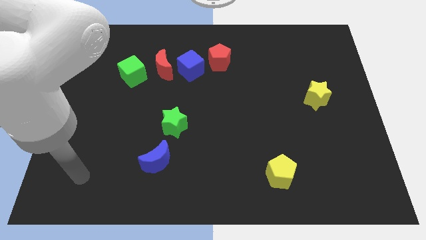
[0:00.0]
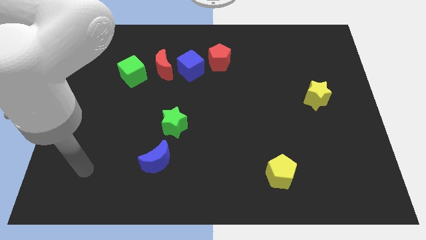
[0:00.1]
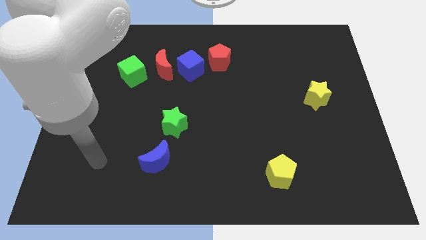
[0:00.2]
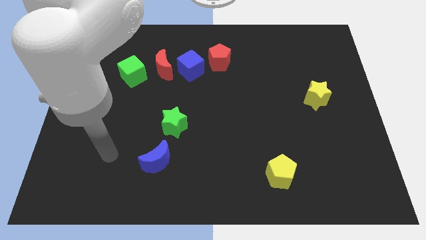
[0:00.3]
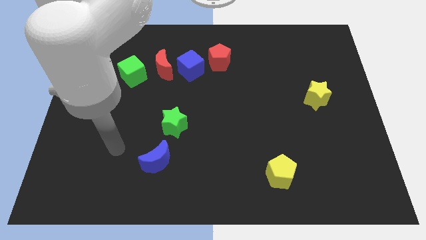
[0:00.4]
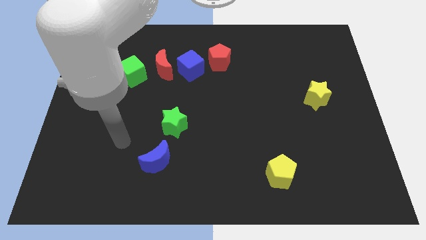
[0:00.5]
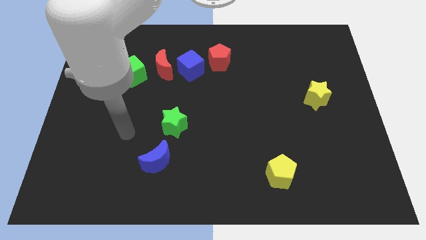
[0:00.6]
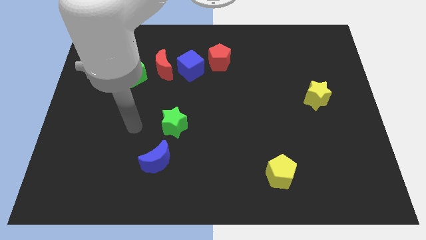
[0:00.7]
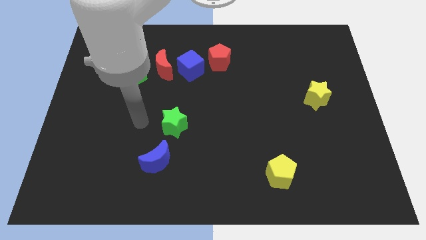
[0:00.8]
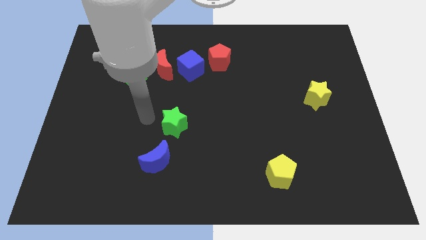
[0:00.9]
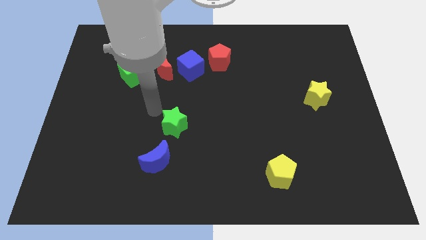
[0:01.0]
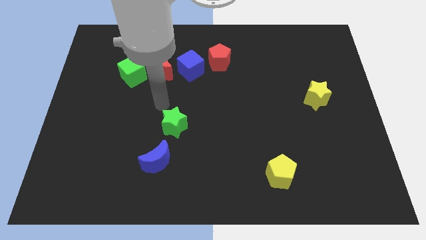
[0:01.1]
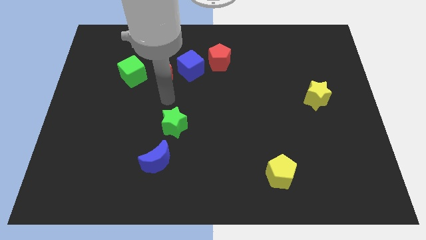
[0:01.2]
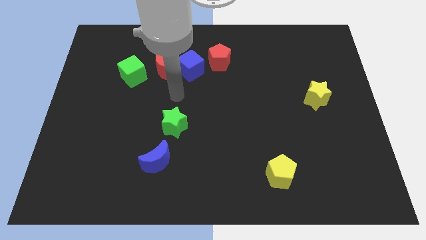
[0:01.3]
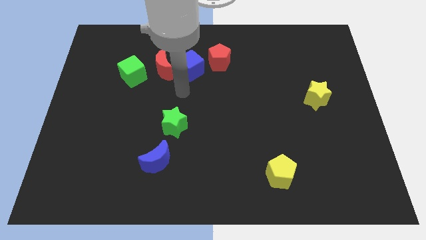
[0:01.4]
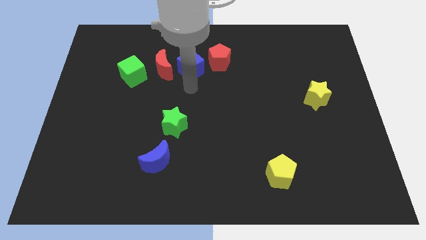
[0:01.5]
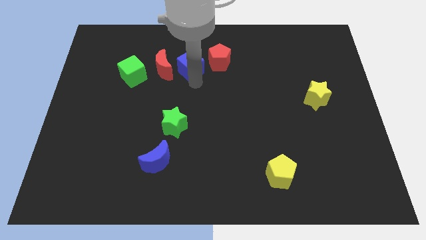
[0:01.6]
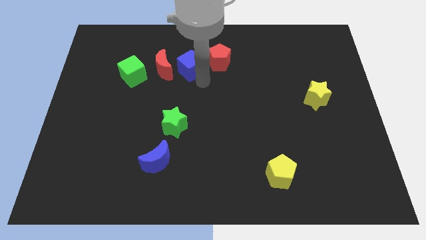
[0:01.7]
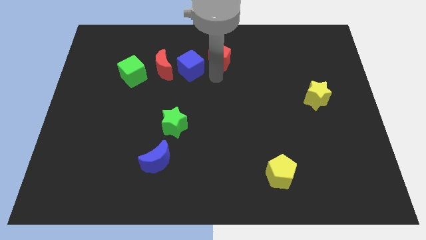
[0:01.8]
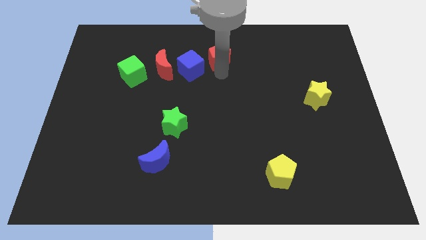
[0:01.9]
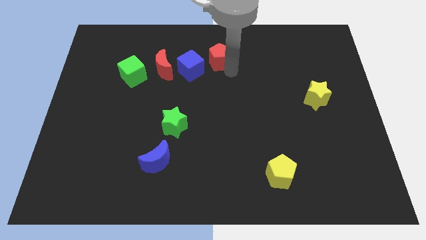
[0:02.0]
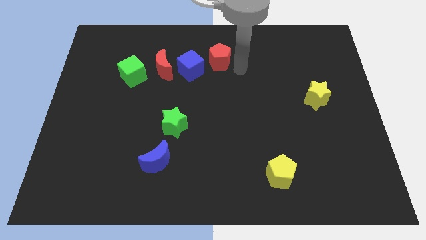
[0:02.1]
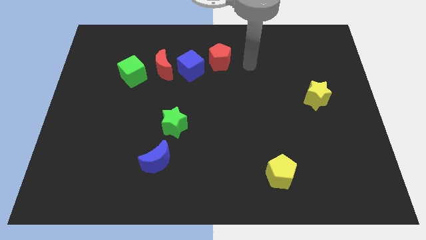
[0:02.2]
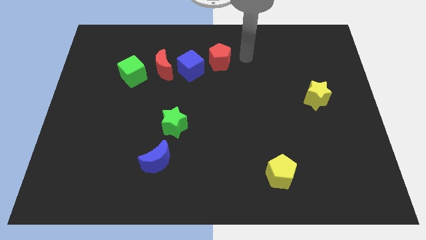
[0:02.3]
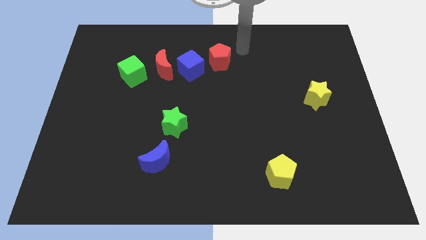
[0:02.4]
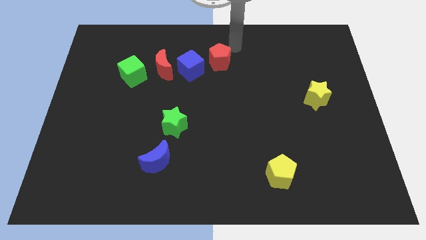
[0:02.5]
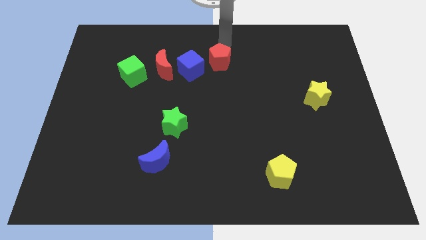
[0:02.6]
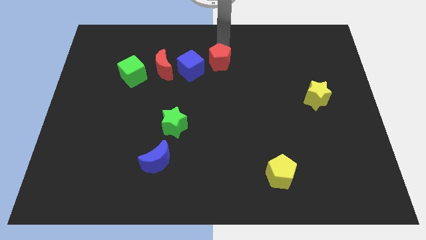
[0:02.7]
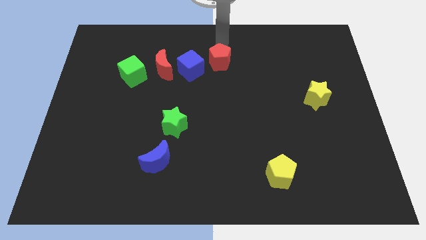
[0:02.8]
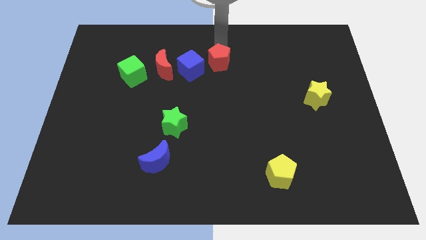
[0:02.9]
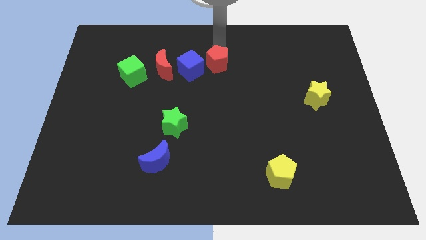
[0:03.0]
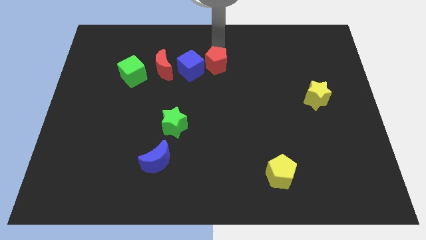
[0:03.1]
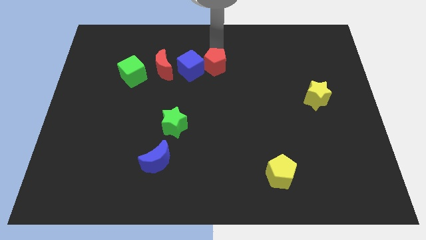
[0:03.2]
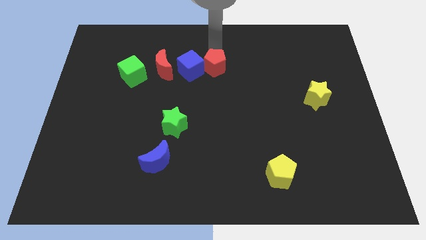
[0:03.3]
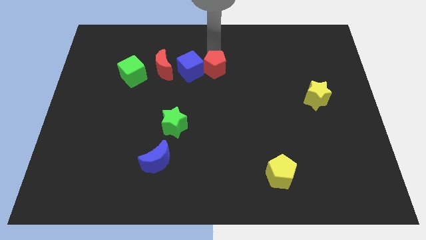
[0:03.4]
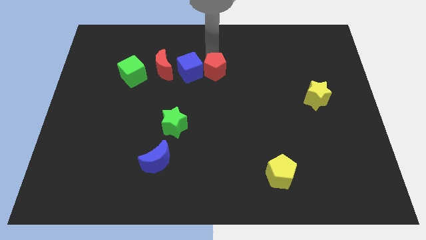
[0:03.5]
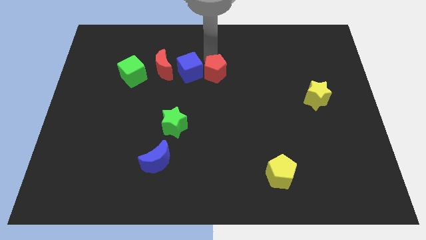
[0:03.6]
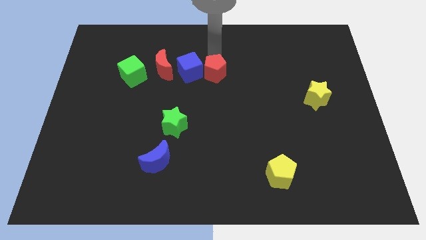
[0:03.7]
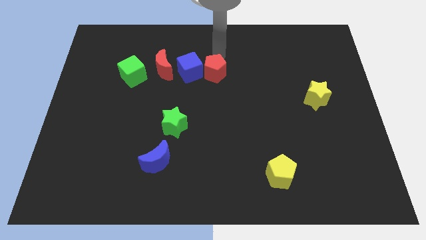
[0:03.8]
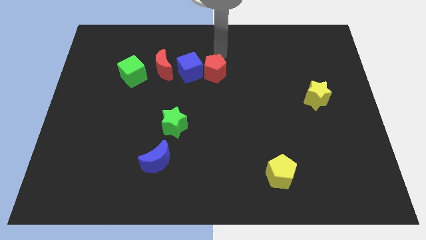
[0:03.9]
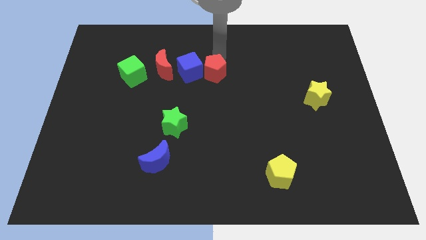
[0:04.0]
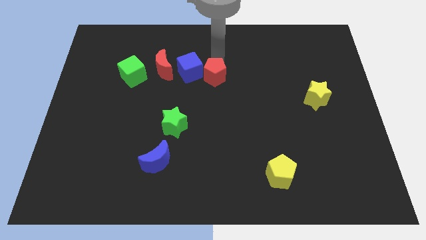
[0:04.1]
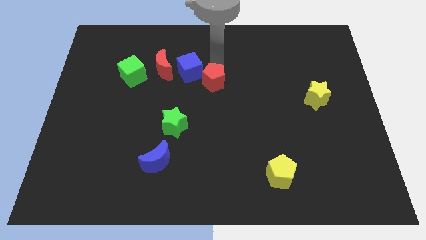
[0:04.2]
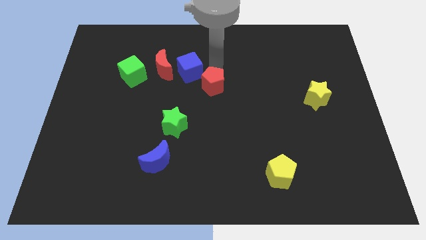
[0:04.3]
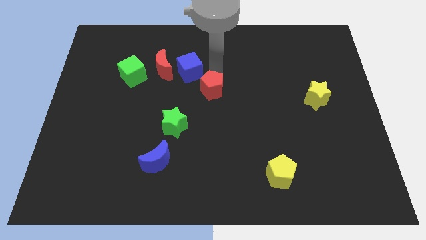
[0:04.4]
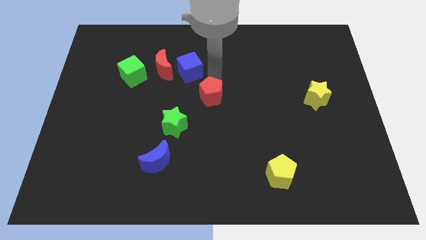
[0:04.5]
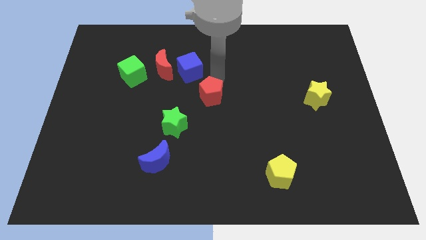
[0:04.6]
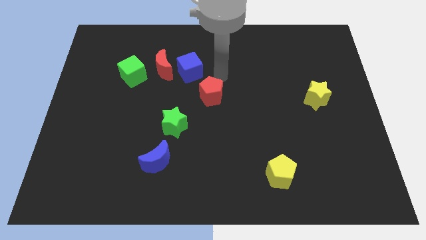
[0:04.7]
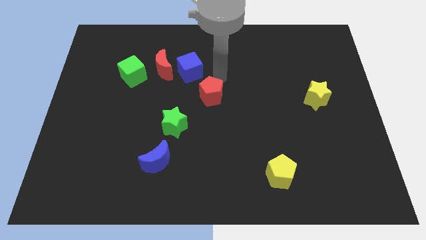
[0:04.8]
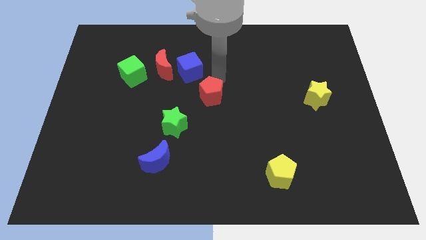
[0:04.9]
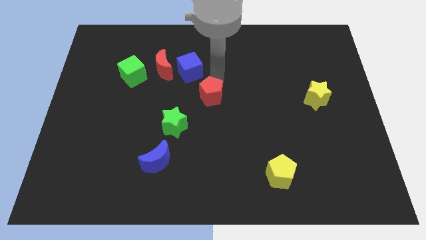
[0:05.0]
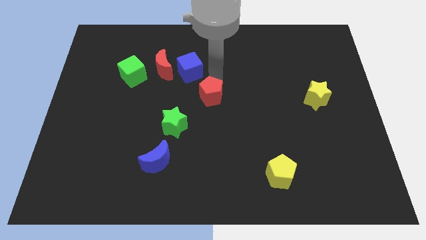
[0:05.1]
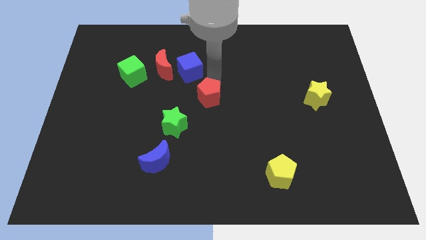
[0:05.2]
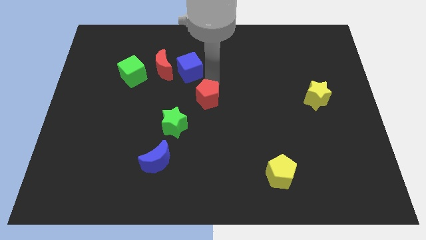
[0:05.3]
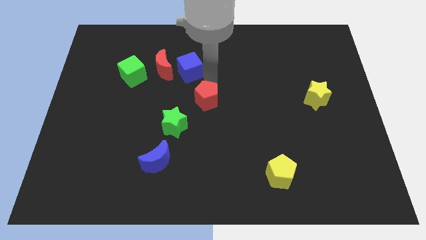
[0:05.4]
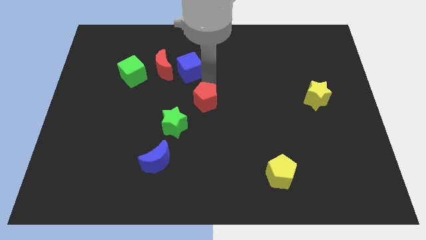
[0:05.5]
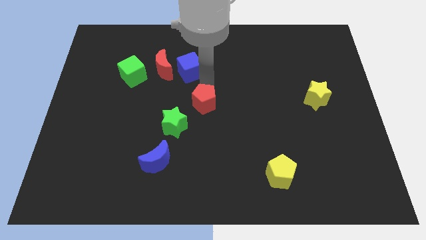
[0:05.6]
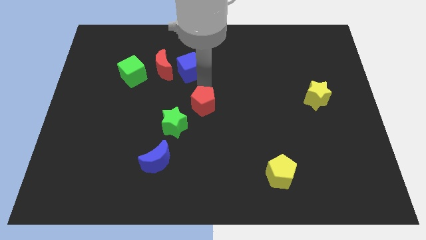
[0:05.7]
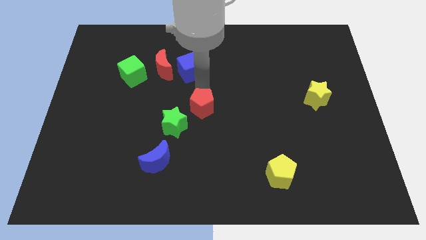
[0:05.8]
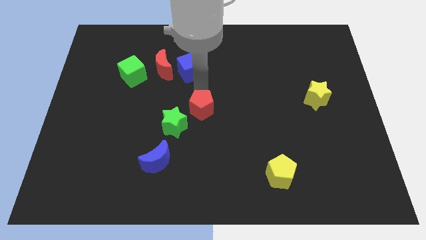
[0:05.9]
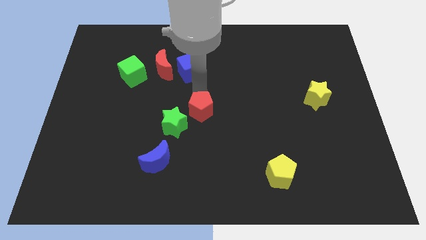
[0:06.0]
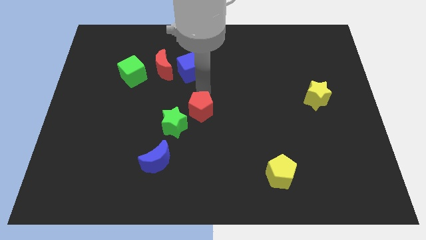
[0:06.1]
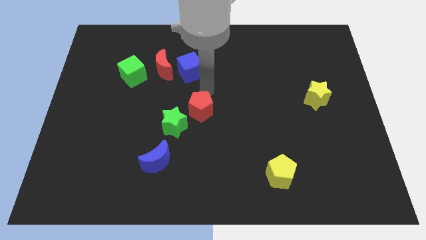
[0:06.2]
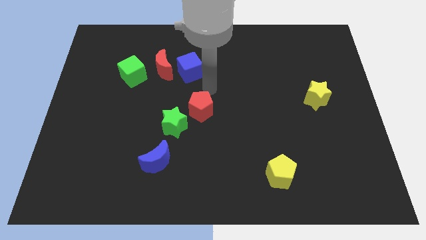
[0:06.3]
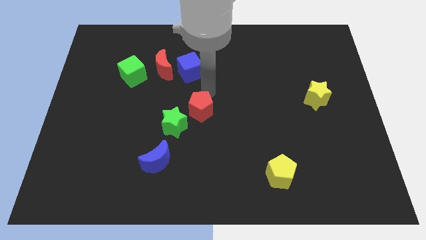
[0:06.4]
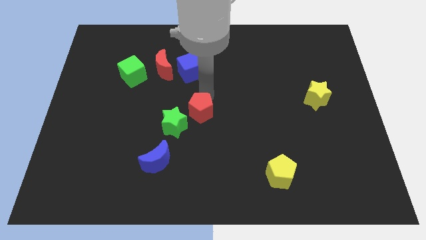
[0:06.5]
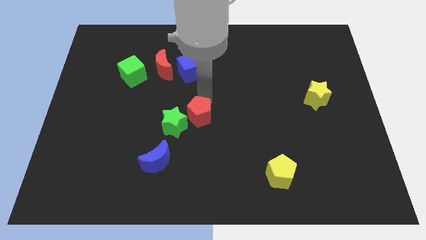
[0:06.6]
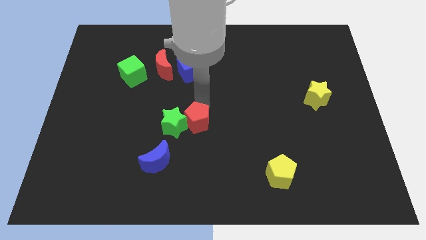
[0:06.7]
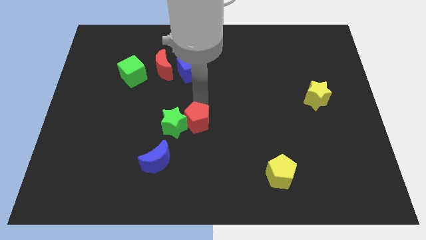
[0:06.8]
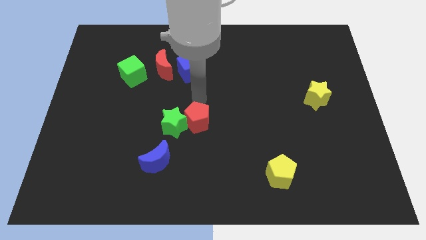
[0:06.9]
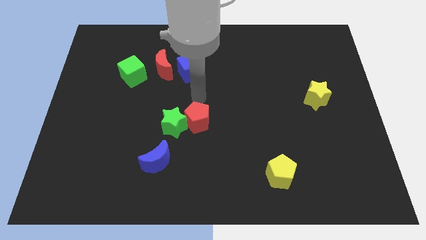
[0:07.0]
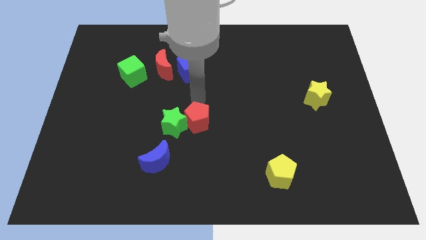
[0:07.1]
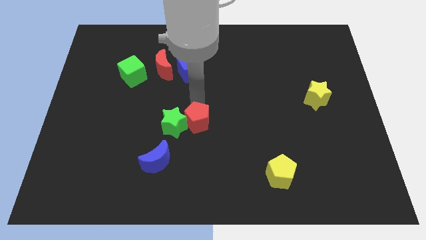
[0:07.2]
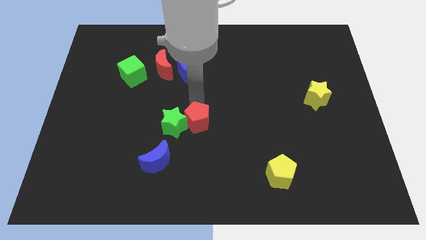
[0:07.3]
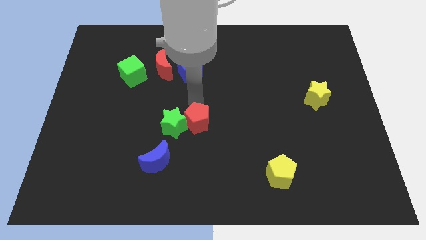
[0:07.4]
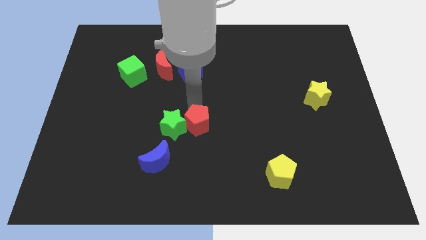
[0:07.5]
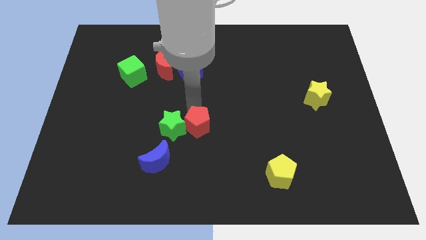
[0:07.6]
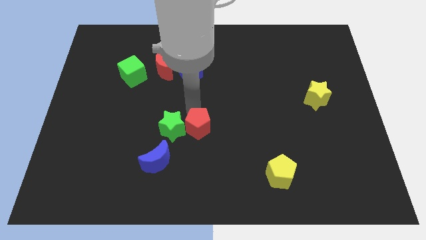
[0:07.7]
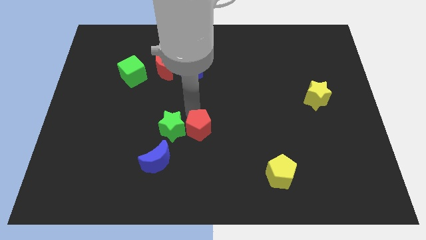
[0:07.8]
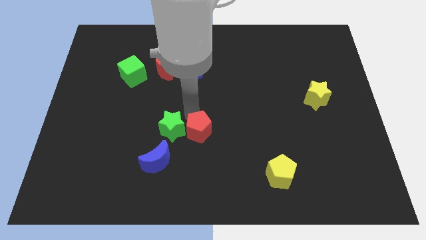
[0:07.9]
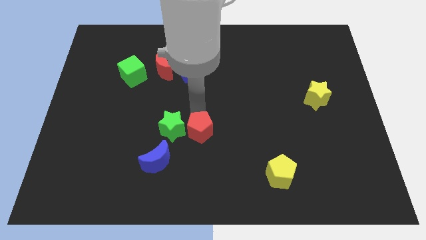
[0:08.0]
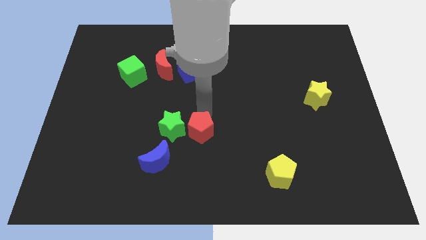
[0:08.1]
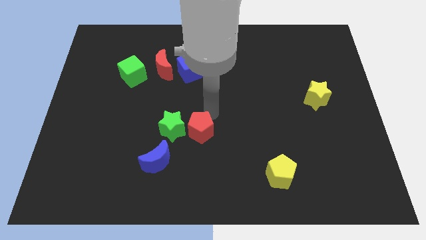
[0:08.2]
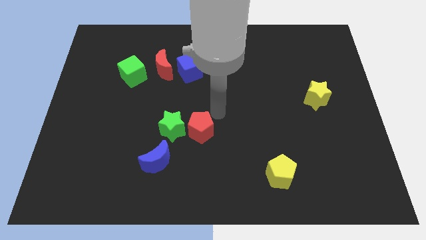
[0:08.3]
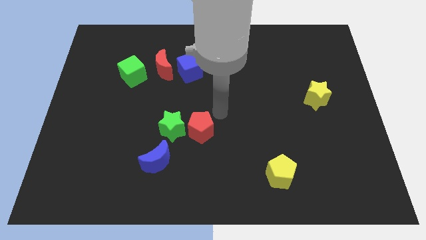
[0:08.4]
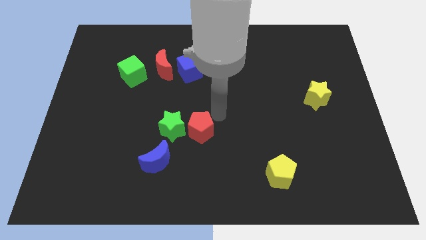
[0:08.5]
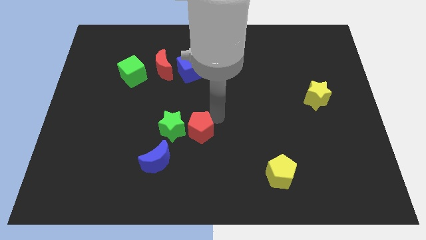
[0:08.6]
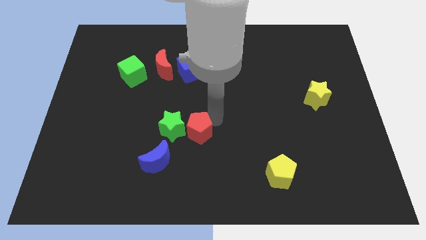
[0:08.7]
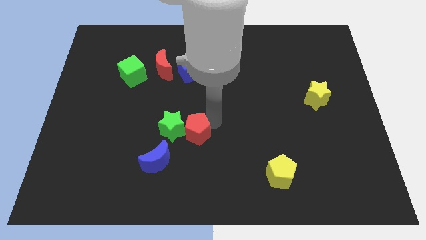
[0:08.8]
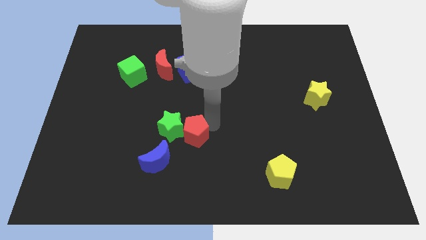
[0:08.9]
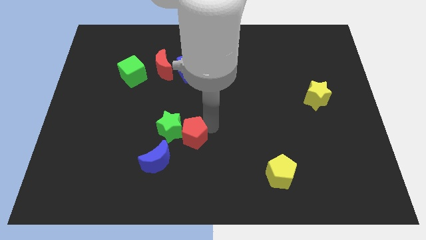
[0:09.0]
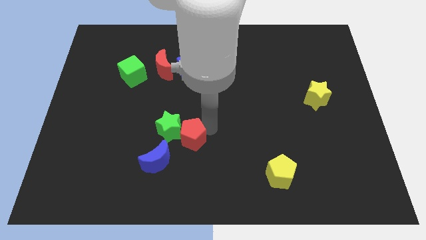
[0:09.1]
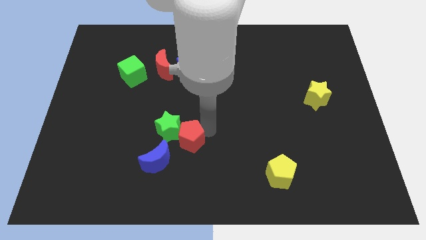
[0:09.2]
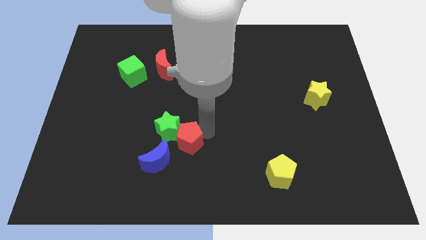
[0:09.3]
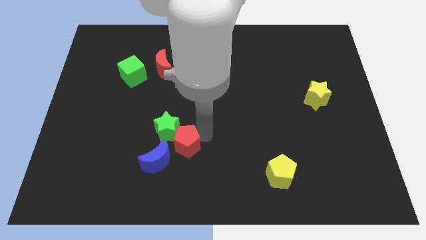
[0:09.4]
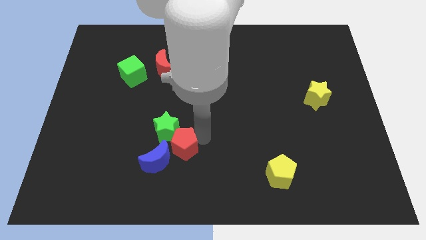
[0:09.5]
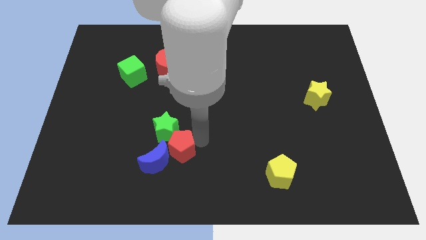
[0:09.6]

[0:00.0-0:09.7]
push the red pentagon to the blue moon
